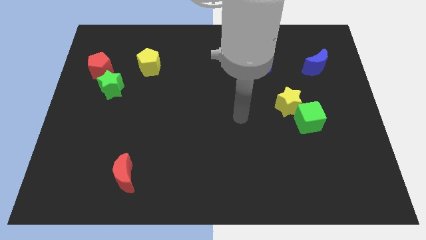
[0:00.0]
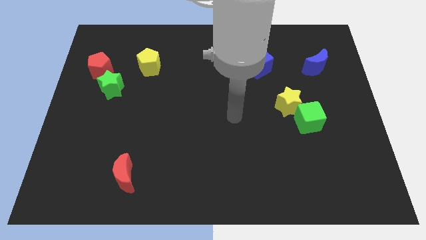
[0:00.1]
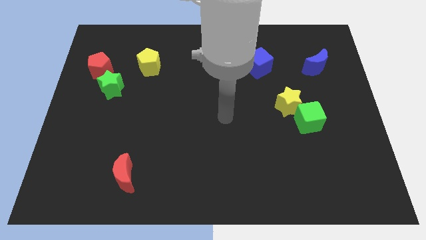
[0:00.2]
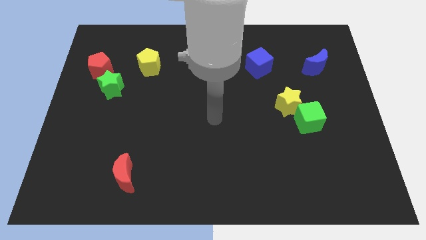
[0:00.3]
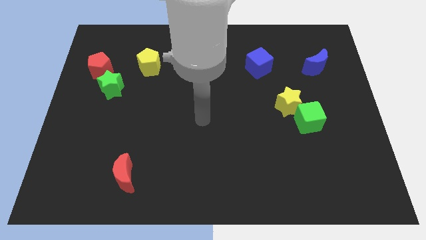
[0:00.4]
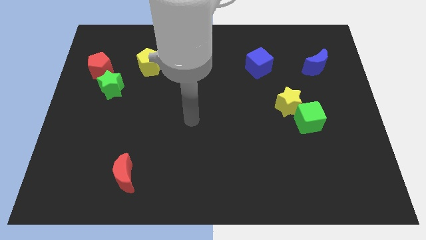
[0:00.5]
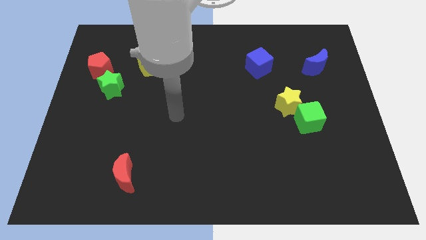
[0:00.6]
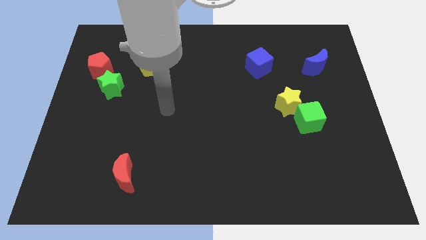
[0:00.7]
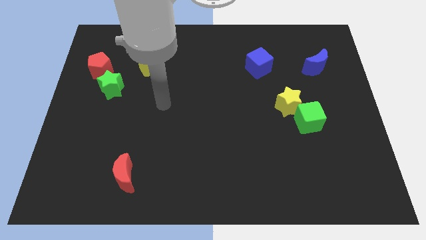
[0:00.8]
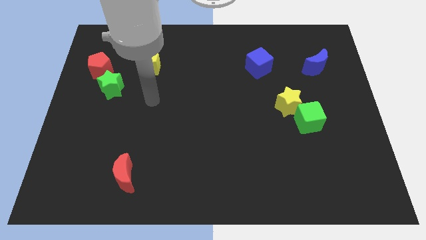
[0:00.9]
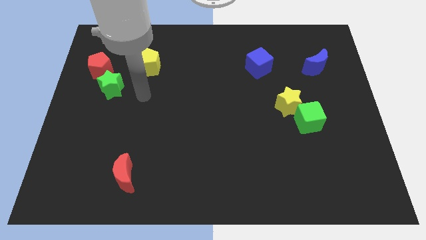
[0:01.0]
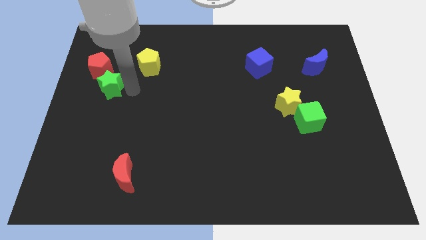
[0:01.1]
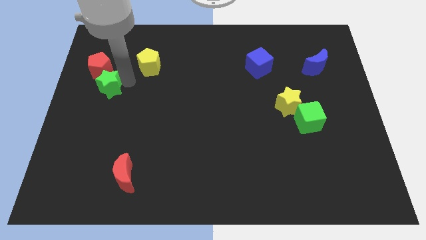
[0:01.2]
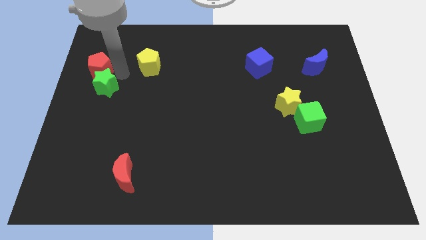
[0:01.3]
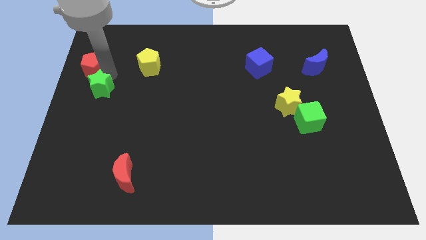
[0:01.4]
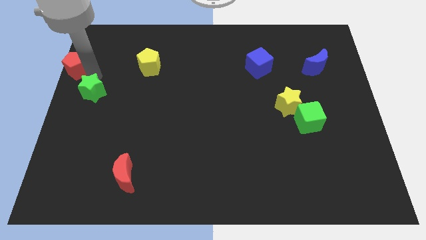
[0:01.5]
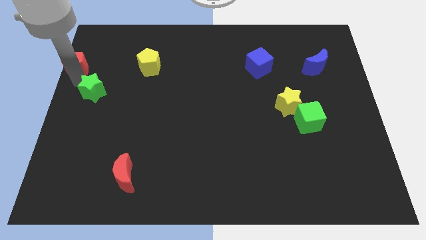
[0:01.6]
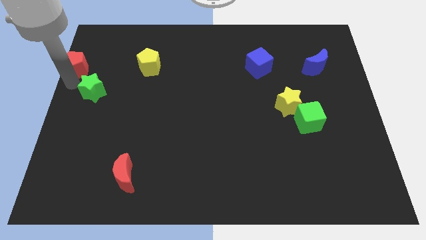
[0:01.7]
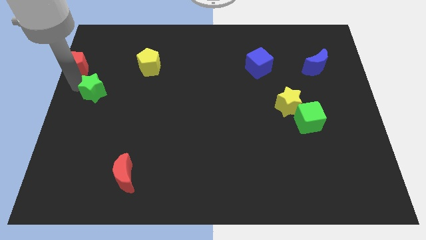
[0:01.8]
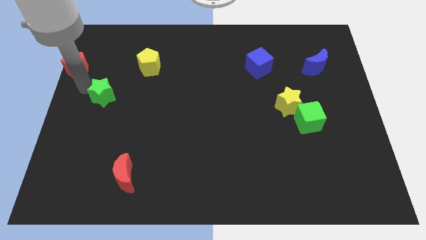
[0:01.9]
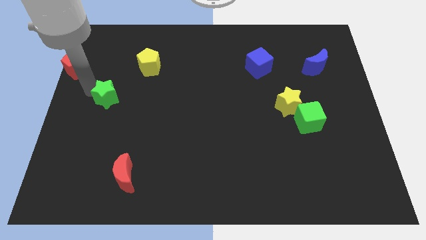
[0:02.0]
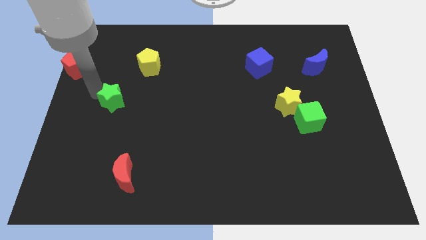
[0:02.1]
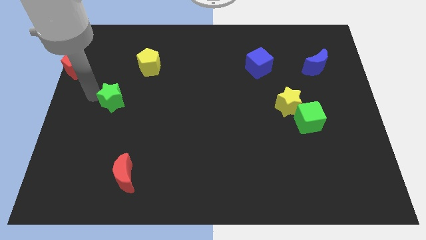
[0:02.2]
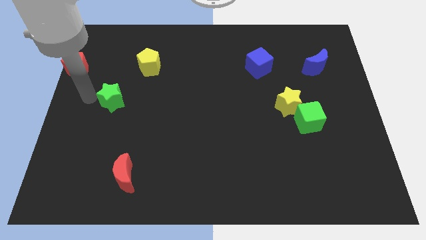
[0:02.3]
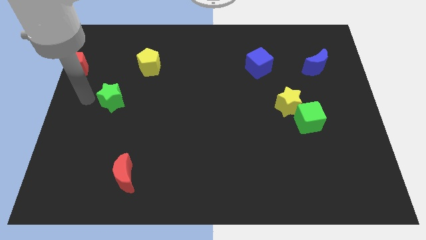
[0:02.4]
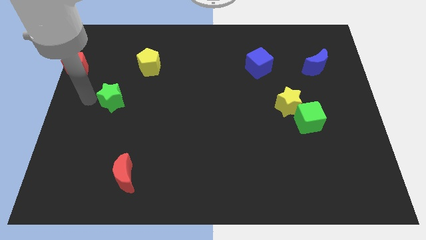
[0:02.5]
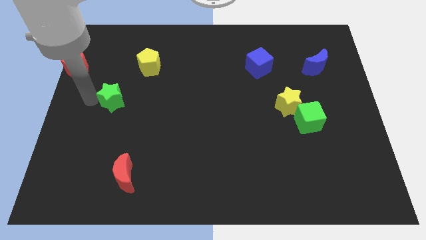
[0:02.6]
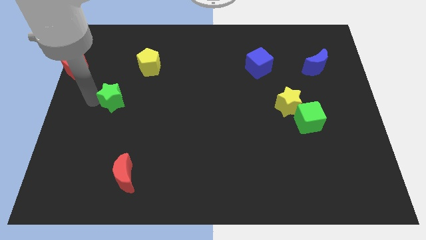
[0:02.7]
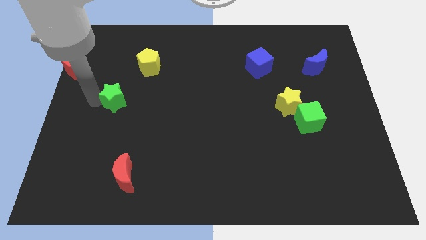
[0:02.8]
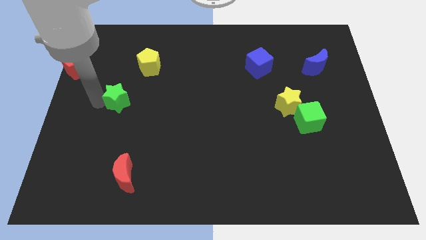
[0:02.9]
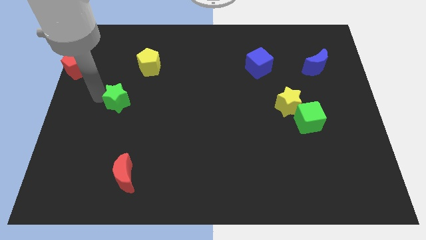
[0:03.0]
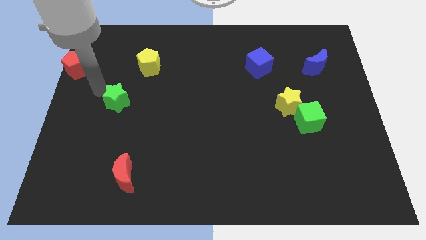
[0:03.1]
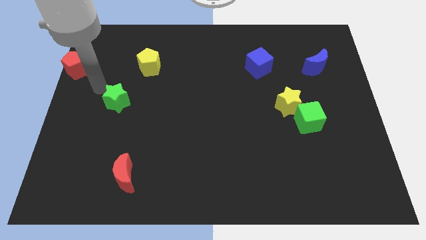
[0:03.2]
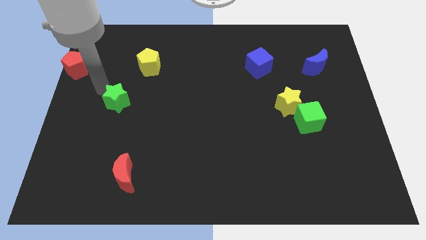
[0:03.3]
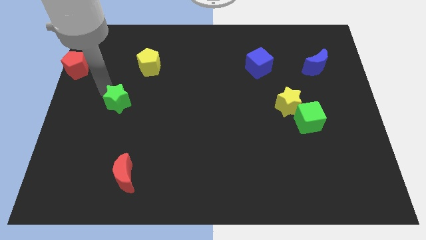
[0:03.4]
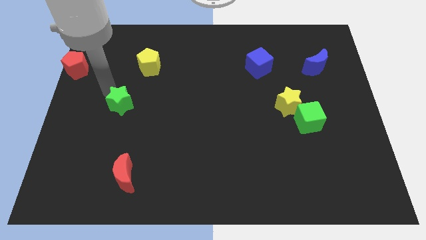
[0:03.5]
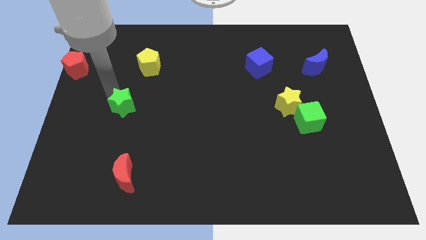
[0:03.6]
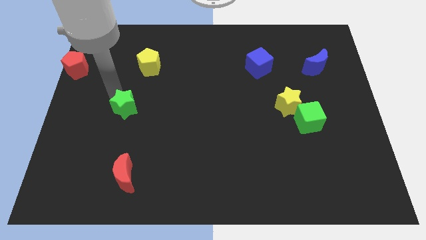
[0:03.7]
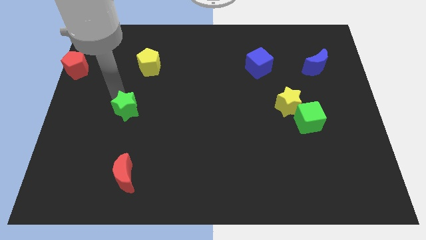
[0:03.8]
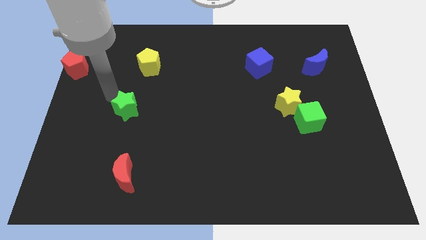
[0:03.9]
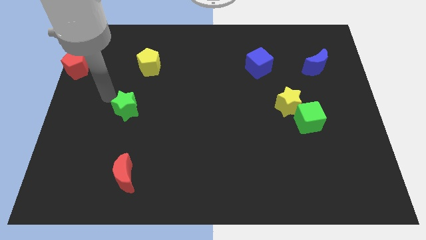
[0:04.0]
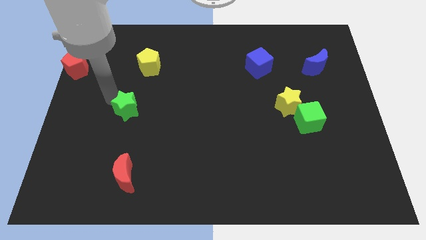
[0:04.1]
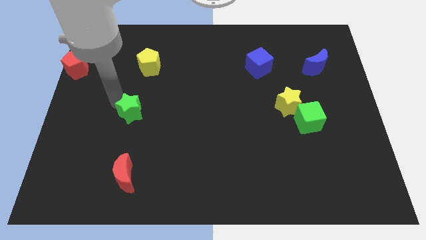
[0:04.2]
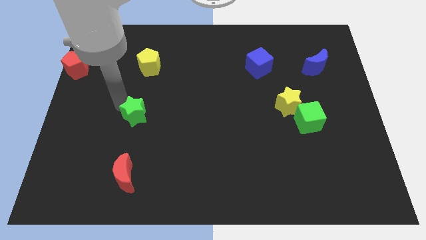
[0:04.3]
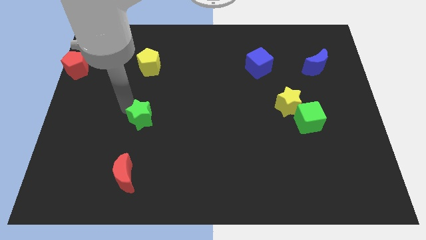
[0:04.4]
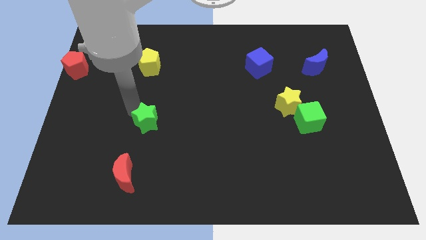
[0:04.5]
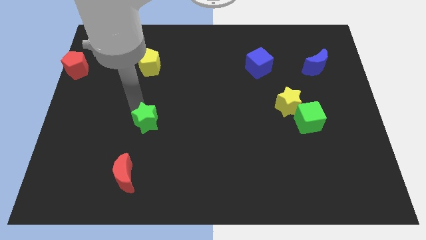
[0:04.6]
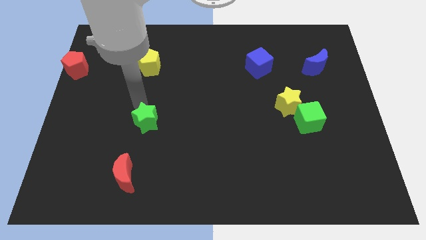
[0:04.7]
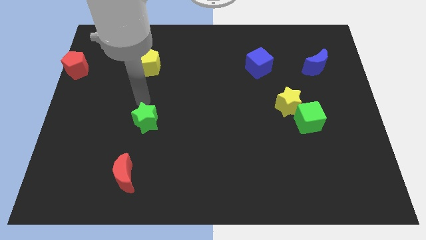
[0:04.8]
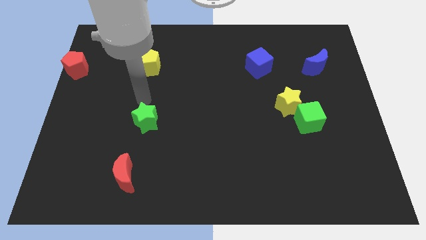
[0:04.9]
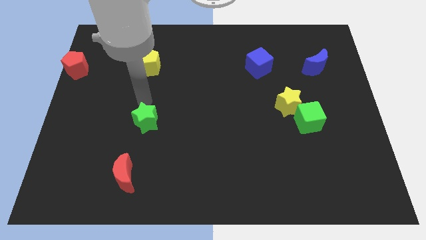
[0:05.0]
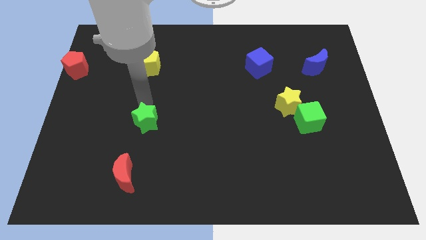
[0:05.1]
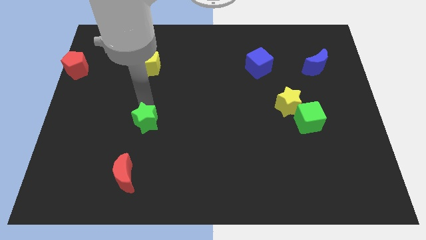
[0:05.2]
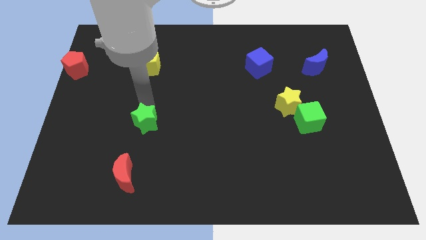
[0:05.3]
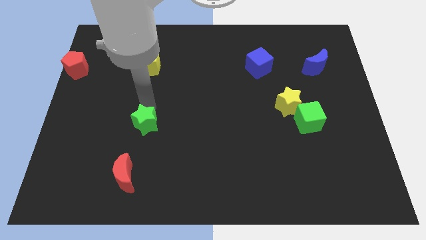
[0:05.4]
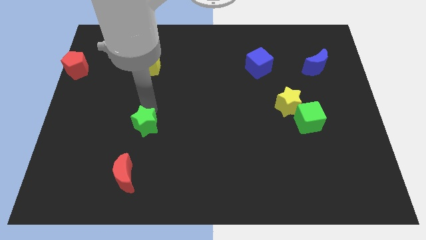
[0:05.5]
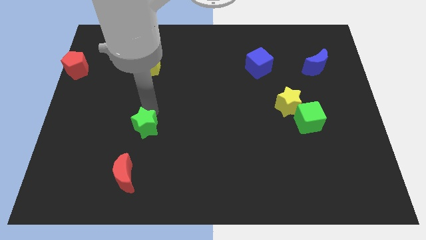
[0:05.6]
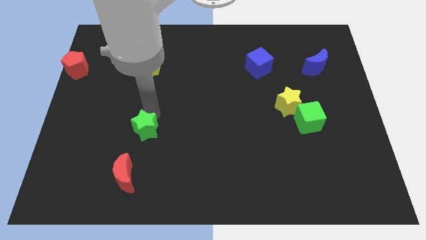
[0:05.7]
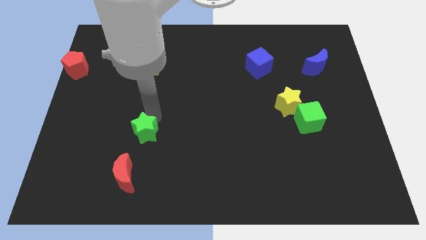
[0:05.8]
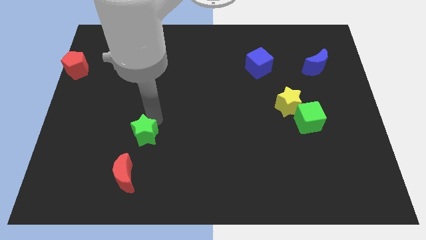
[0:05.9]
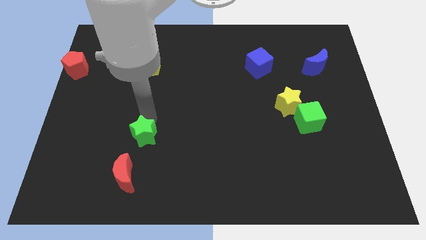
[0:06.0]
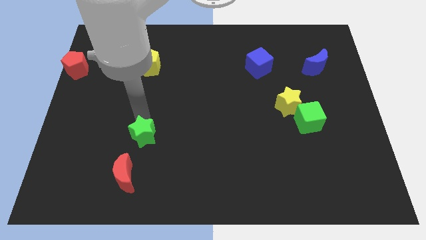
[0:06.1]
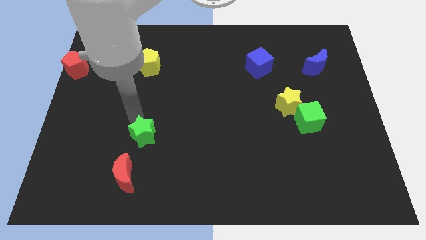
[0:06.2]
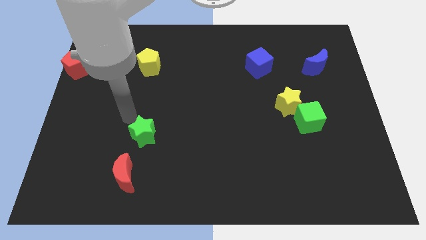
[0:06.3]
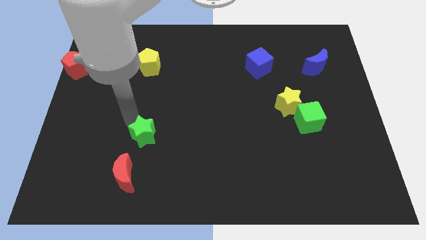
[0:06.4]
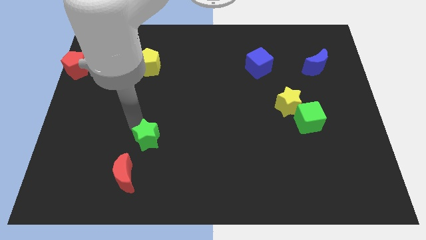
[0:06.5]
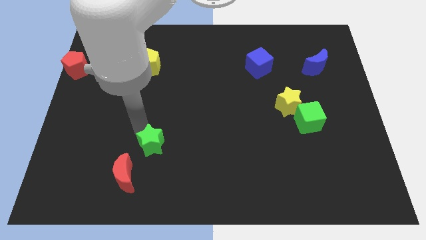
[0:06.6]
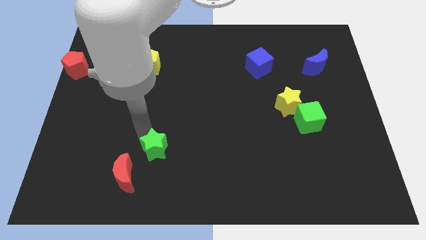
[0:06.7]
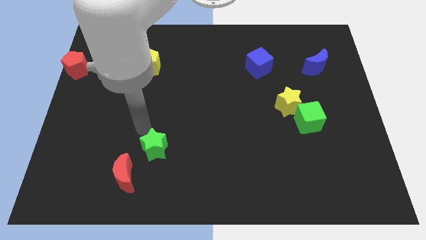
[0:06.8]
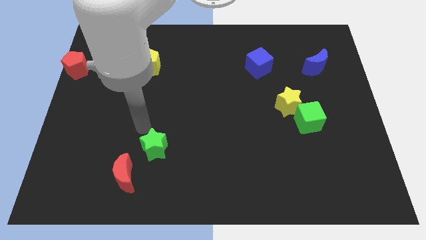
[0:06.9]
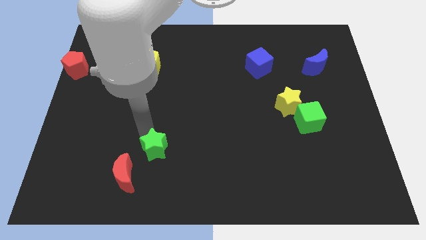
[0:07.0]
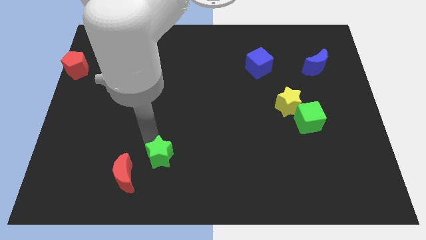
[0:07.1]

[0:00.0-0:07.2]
put the green star just right of the red moon
